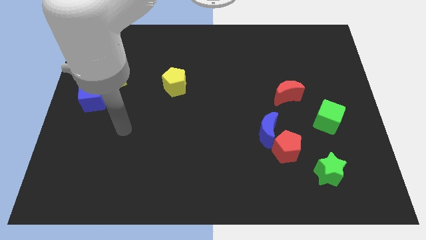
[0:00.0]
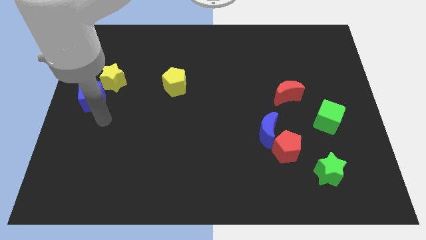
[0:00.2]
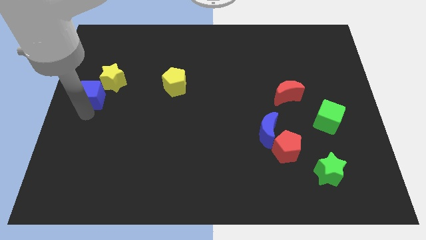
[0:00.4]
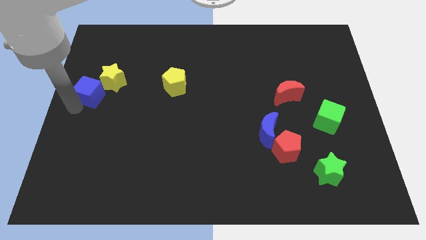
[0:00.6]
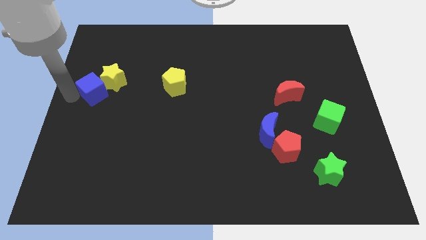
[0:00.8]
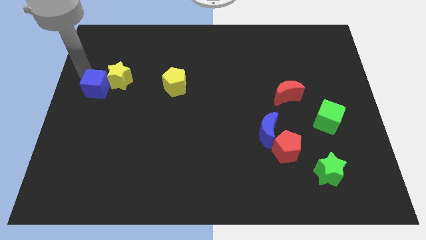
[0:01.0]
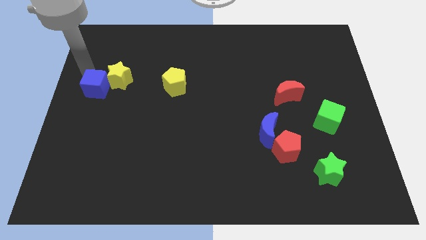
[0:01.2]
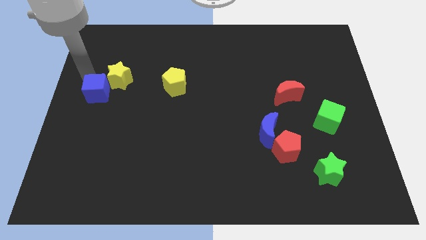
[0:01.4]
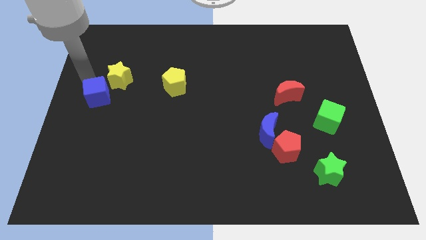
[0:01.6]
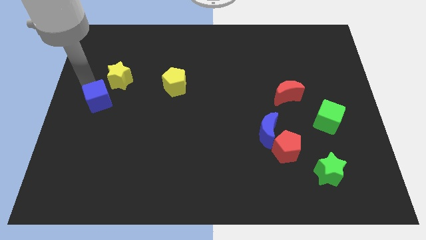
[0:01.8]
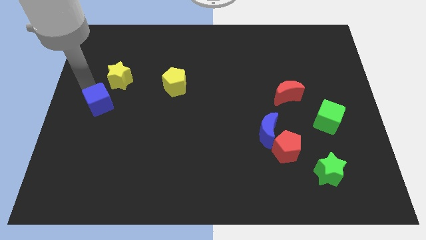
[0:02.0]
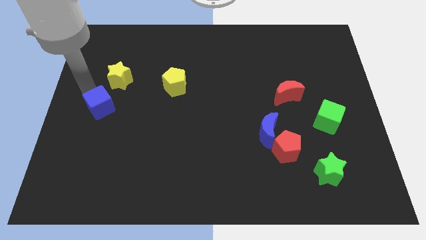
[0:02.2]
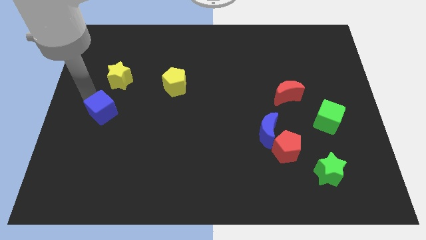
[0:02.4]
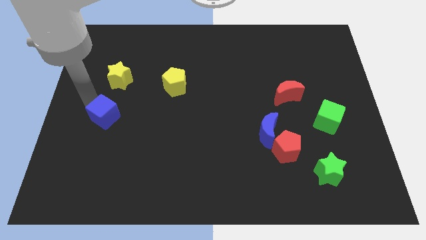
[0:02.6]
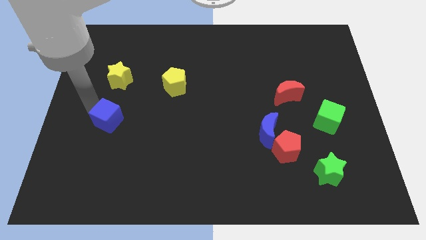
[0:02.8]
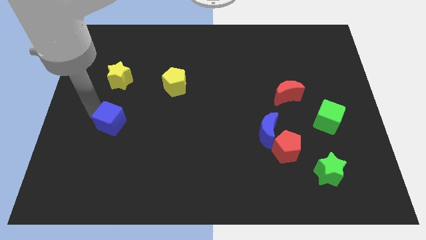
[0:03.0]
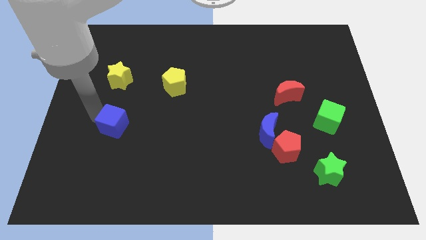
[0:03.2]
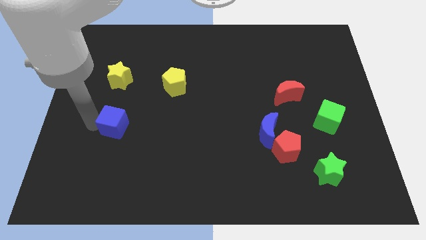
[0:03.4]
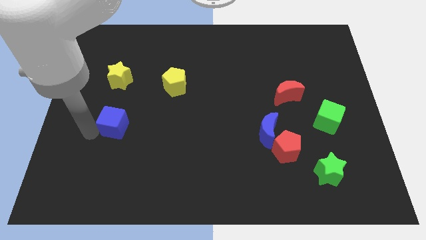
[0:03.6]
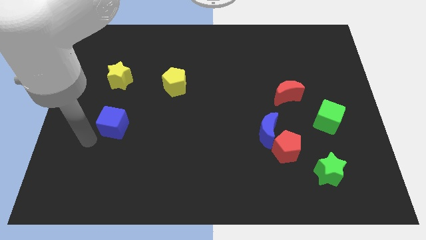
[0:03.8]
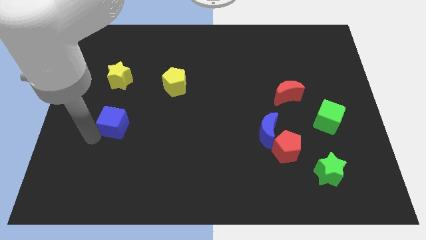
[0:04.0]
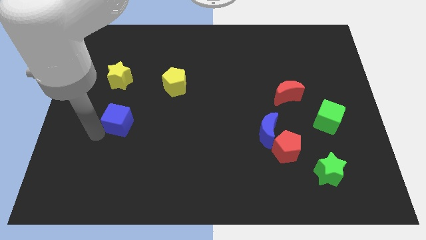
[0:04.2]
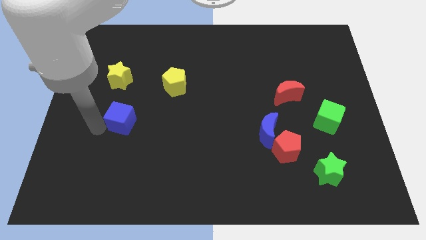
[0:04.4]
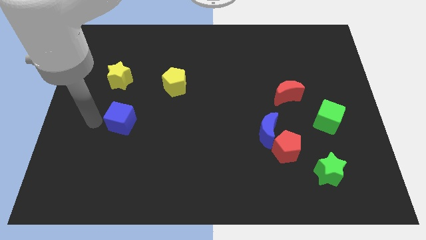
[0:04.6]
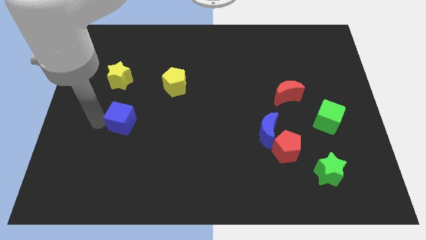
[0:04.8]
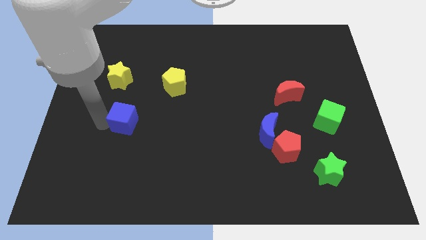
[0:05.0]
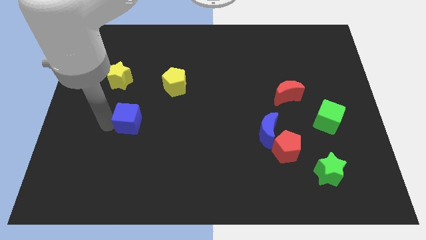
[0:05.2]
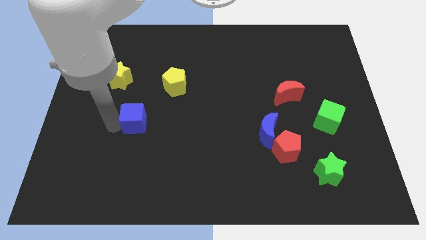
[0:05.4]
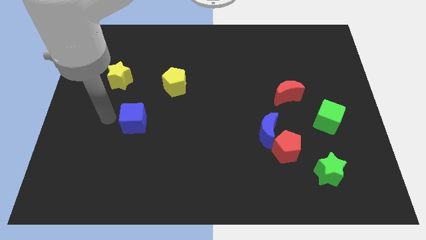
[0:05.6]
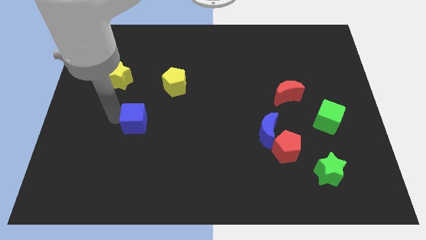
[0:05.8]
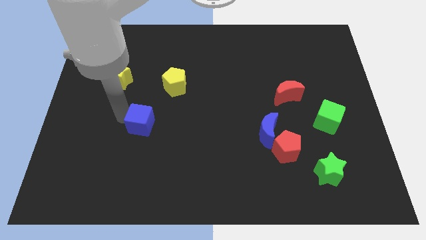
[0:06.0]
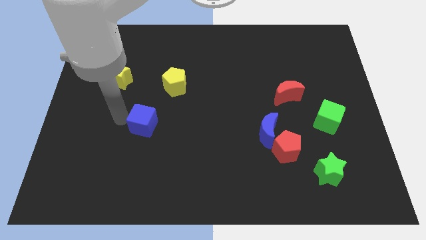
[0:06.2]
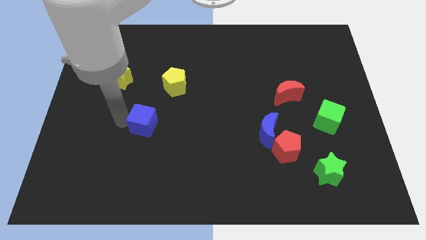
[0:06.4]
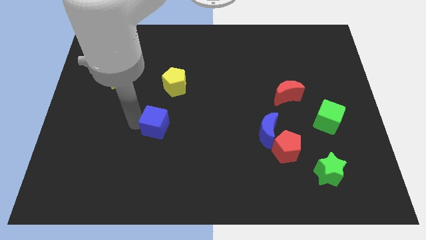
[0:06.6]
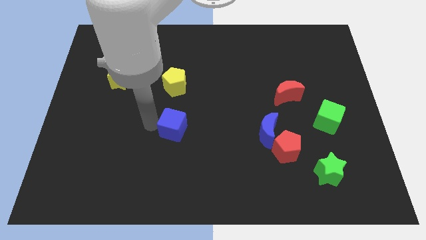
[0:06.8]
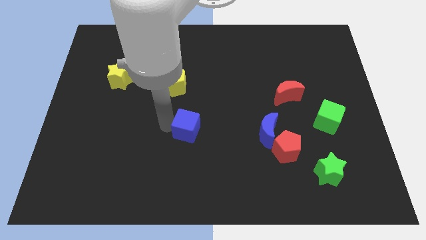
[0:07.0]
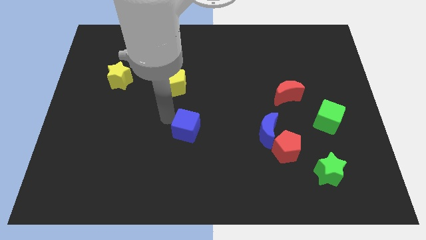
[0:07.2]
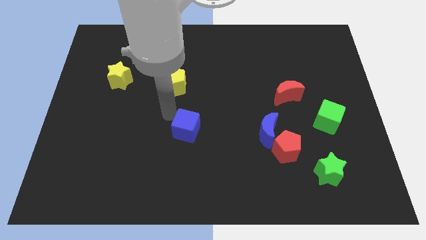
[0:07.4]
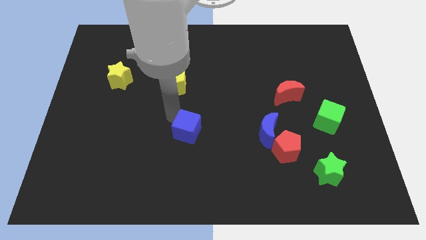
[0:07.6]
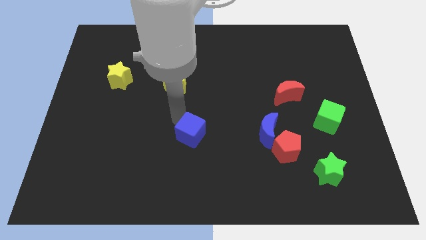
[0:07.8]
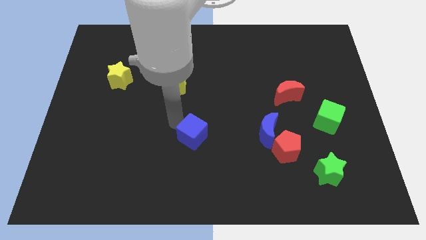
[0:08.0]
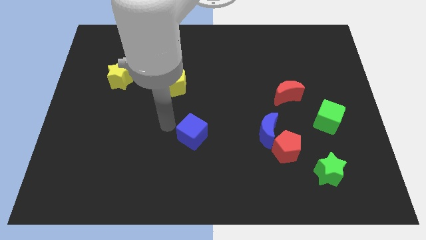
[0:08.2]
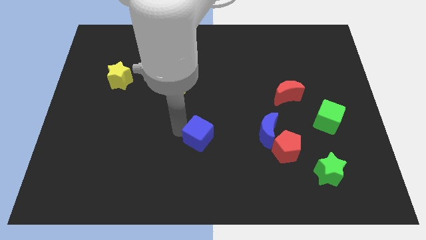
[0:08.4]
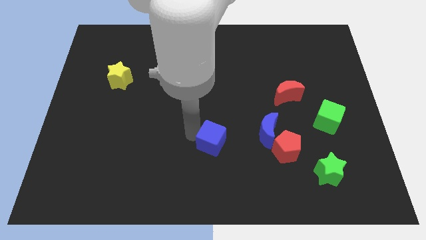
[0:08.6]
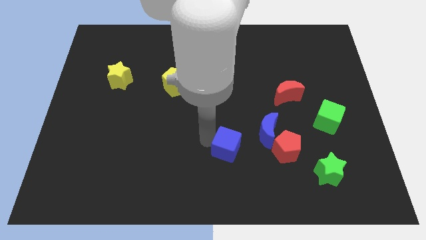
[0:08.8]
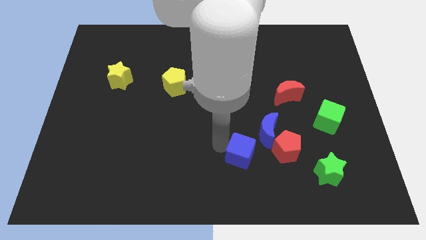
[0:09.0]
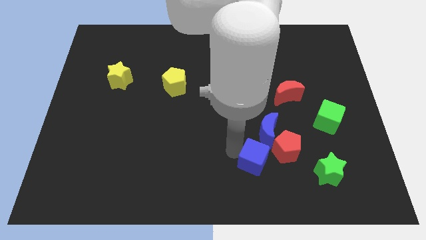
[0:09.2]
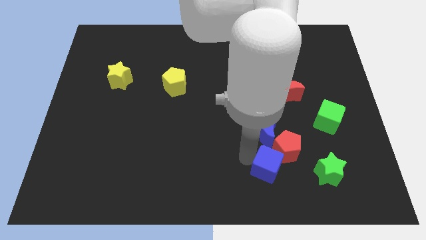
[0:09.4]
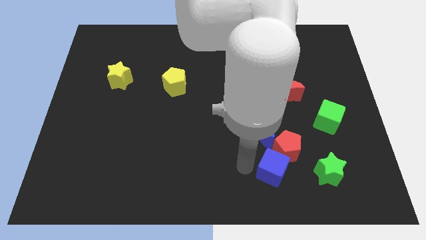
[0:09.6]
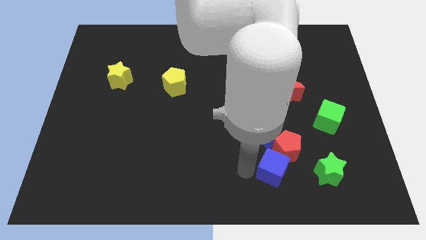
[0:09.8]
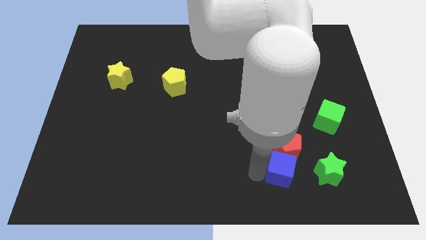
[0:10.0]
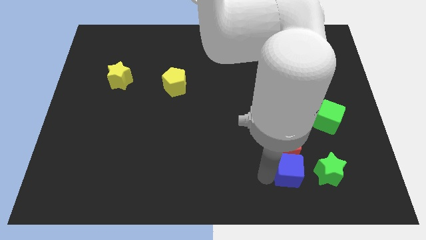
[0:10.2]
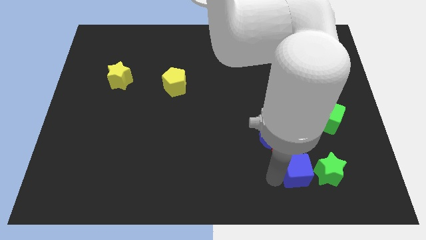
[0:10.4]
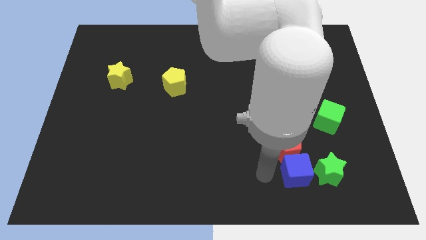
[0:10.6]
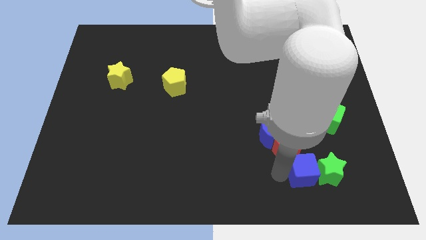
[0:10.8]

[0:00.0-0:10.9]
push the blue cube to the green star

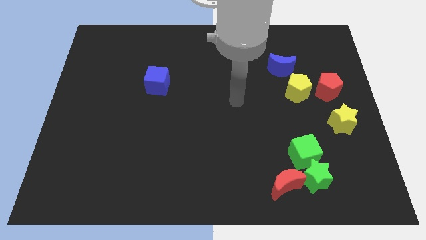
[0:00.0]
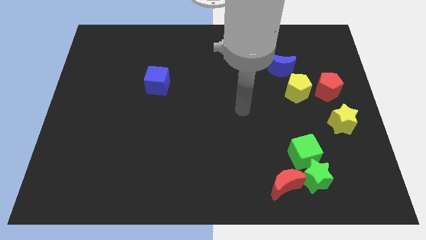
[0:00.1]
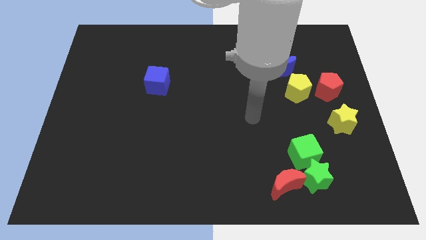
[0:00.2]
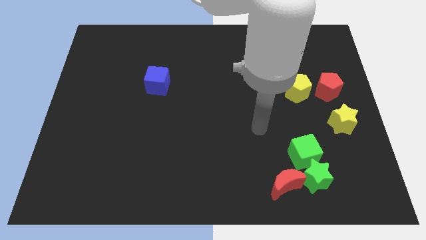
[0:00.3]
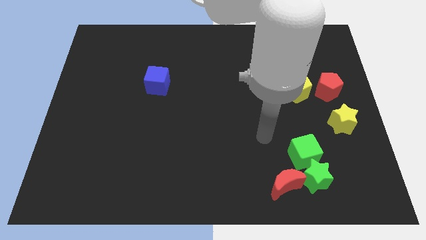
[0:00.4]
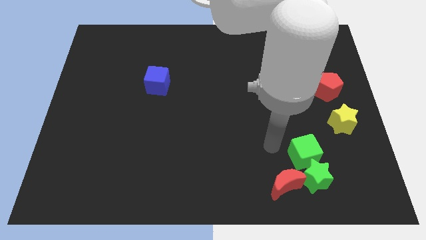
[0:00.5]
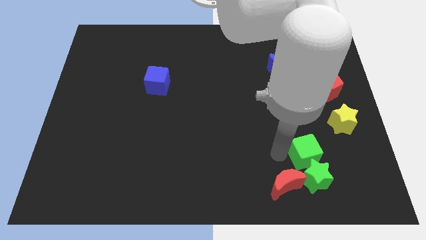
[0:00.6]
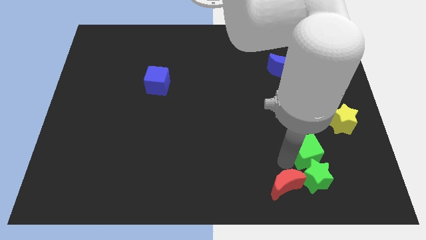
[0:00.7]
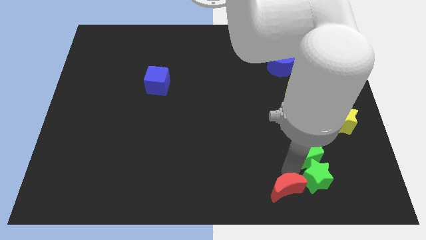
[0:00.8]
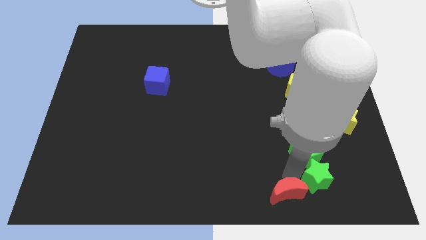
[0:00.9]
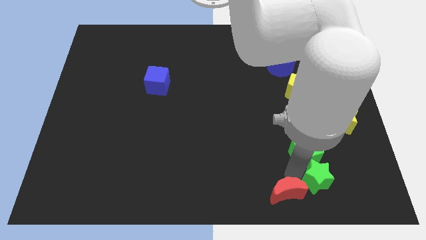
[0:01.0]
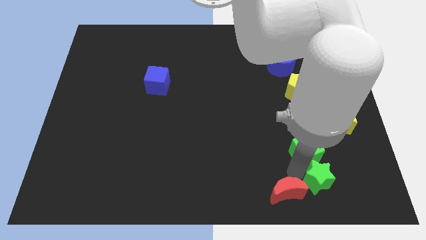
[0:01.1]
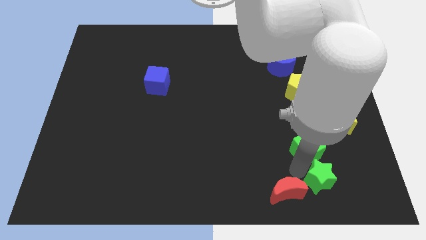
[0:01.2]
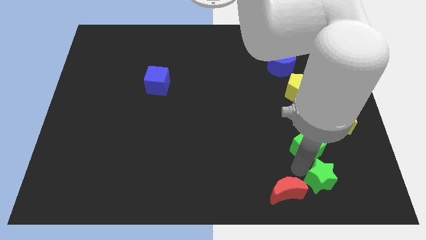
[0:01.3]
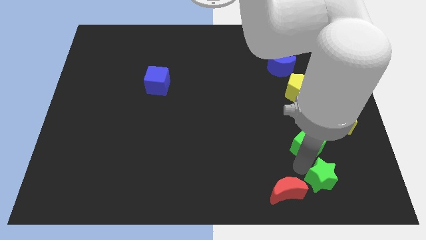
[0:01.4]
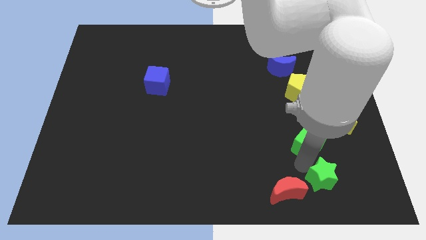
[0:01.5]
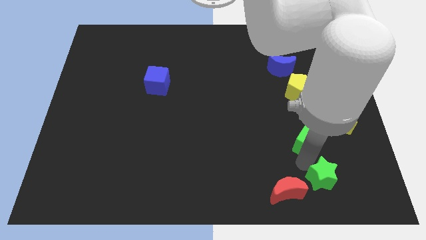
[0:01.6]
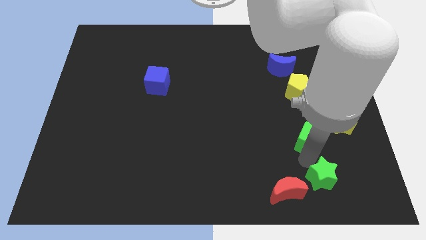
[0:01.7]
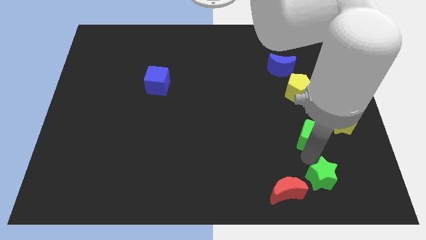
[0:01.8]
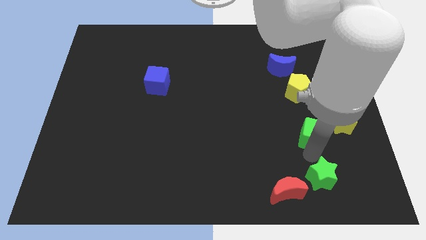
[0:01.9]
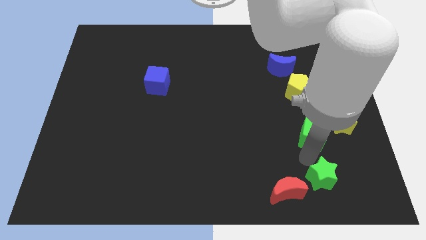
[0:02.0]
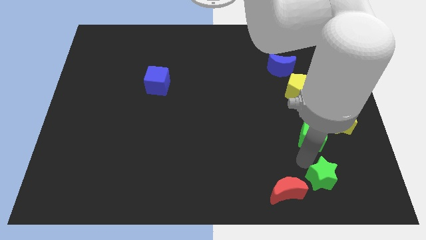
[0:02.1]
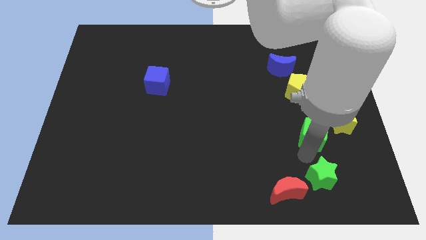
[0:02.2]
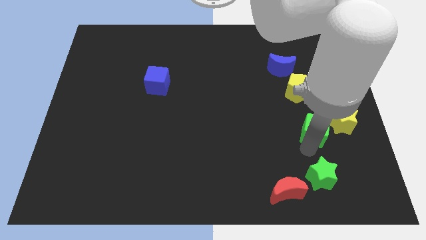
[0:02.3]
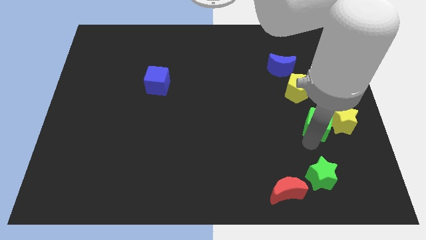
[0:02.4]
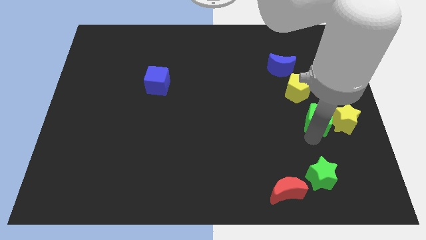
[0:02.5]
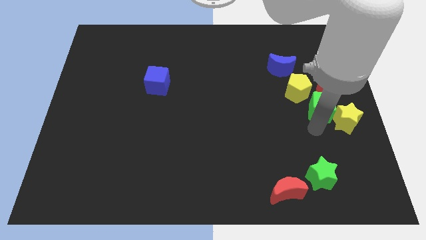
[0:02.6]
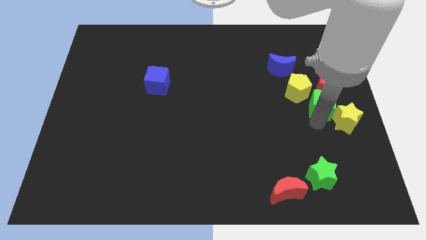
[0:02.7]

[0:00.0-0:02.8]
put the green cube towards the red pentagon
